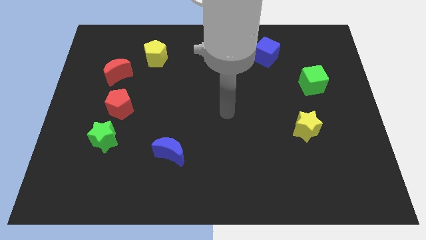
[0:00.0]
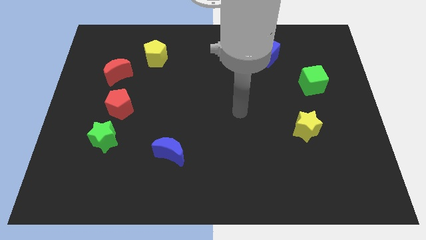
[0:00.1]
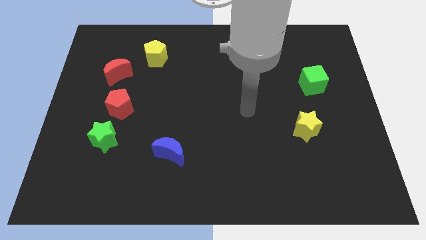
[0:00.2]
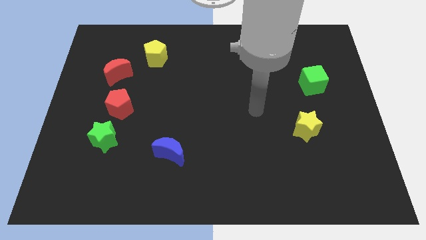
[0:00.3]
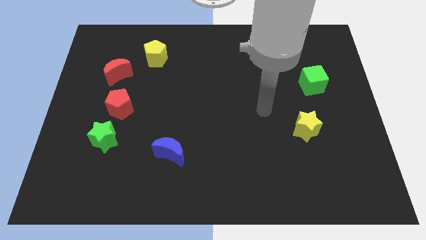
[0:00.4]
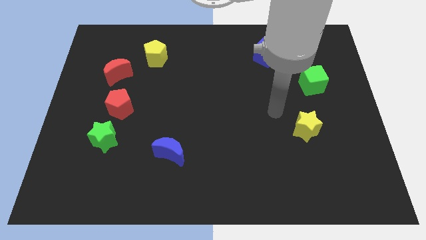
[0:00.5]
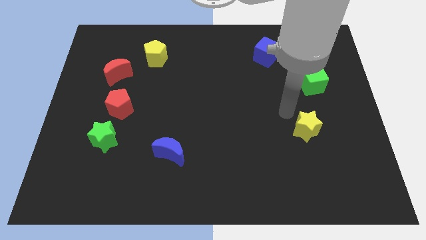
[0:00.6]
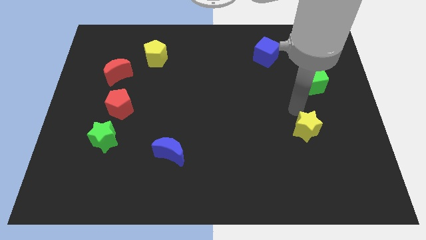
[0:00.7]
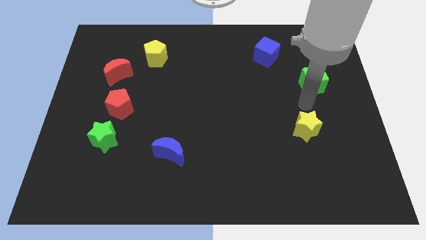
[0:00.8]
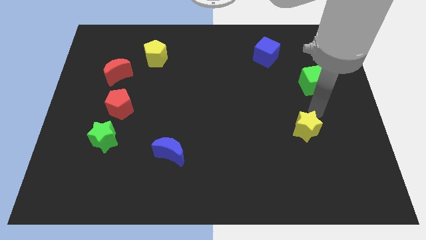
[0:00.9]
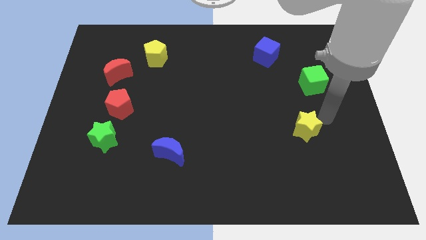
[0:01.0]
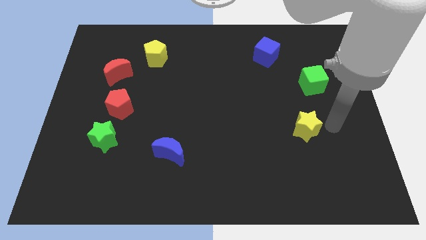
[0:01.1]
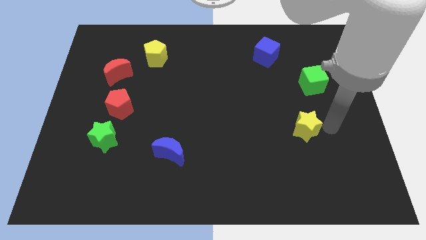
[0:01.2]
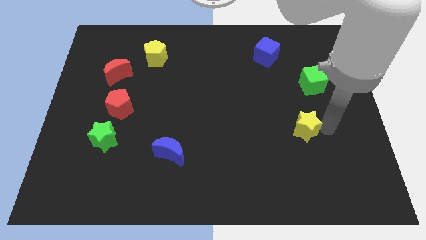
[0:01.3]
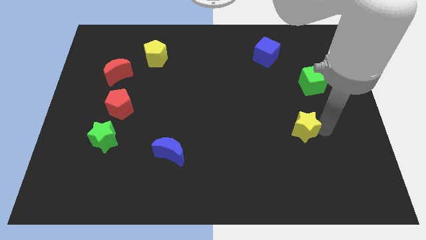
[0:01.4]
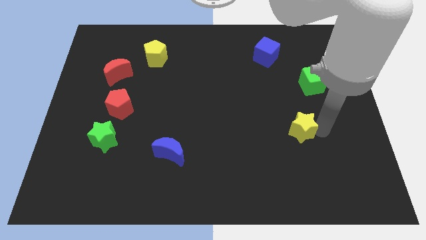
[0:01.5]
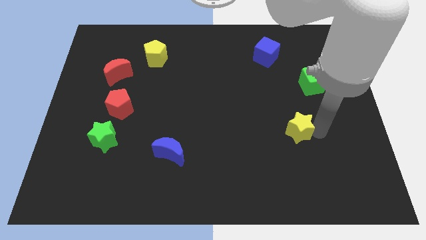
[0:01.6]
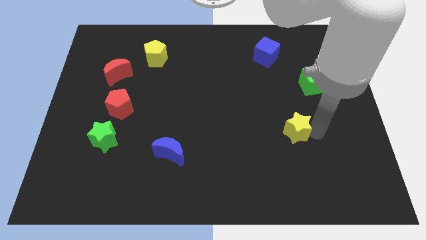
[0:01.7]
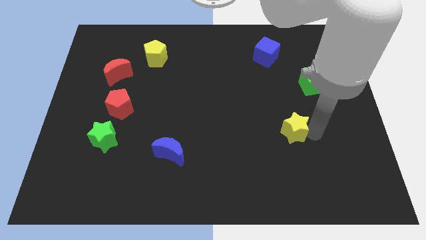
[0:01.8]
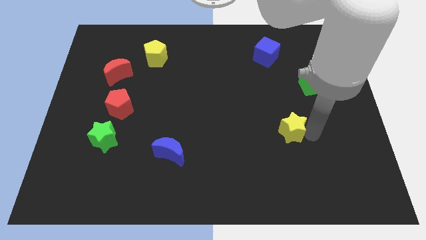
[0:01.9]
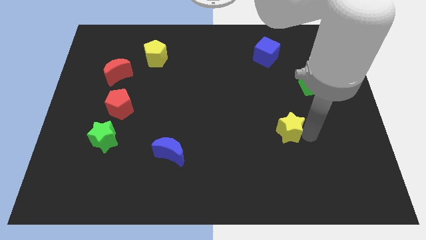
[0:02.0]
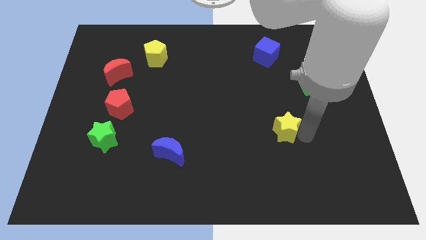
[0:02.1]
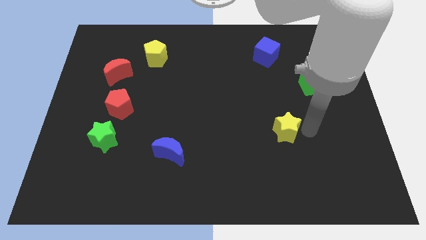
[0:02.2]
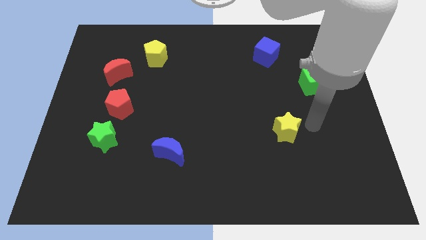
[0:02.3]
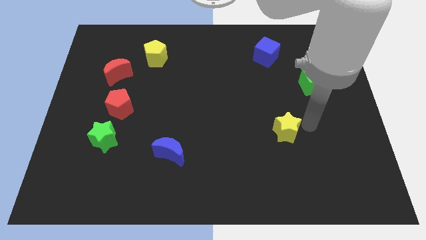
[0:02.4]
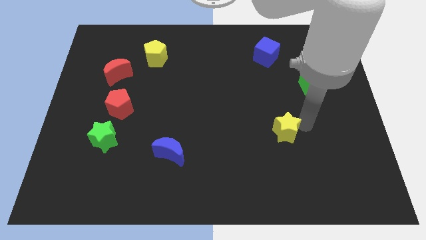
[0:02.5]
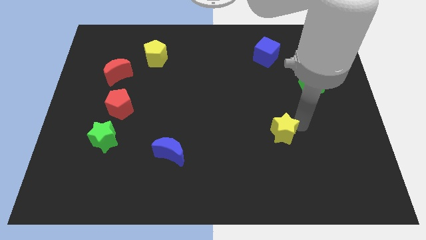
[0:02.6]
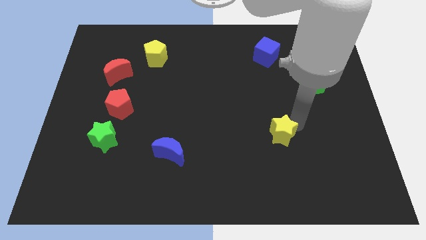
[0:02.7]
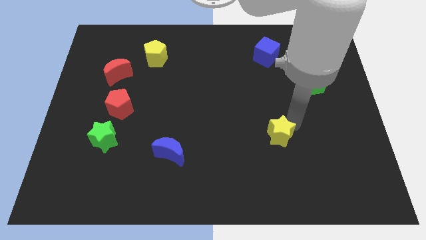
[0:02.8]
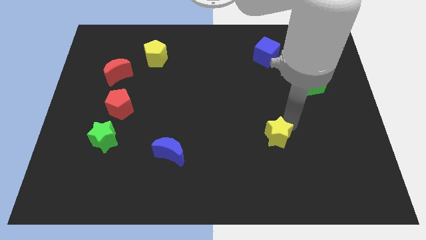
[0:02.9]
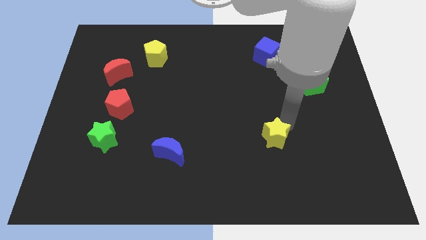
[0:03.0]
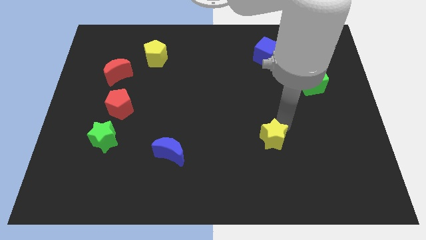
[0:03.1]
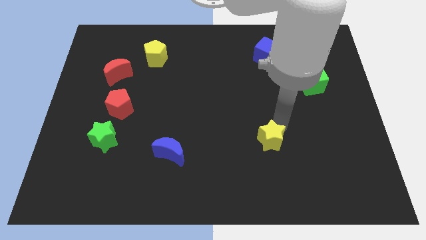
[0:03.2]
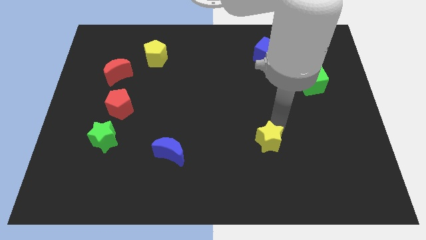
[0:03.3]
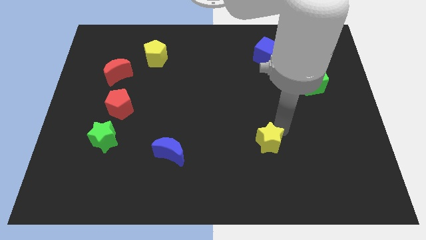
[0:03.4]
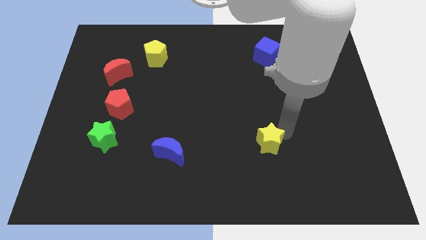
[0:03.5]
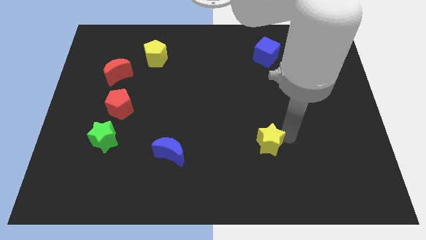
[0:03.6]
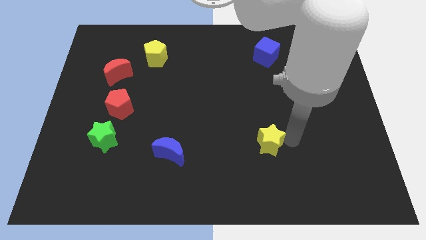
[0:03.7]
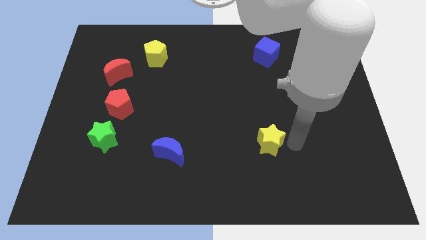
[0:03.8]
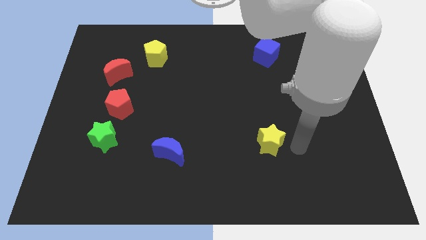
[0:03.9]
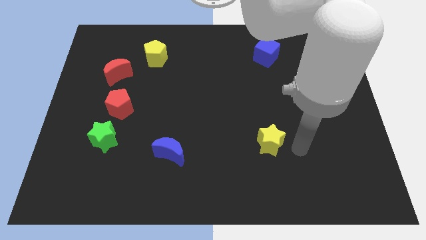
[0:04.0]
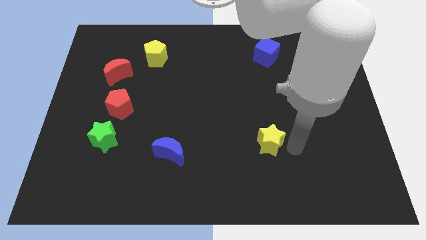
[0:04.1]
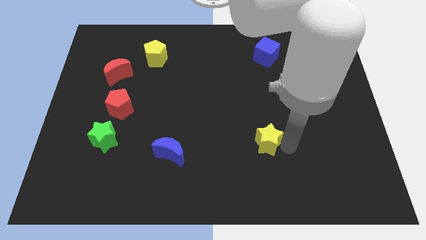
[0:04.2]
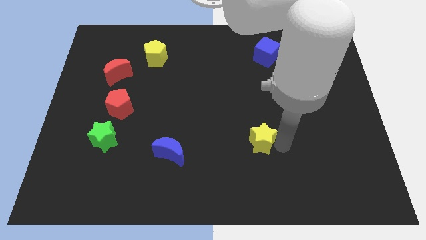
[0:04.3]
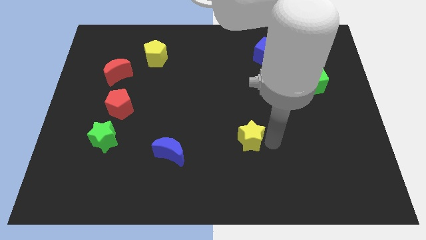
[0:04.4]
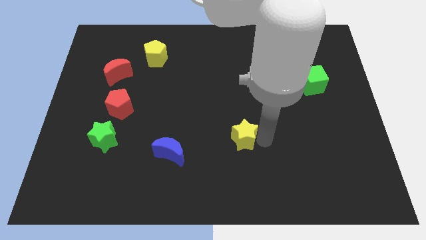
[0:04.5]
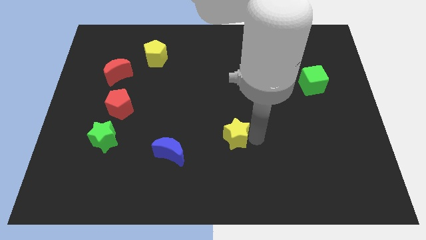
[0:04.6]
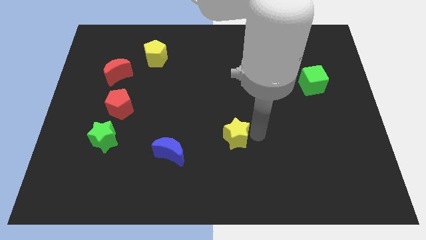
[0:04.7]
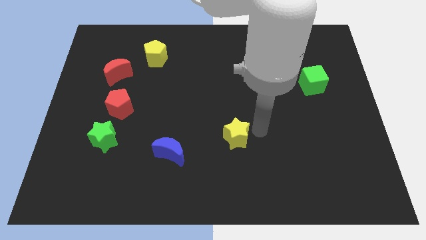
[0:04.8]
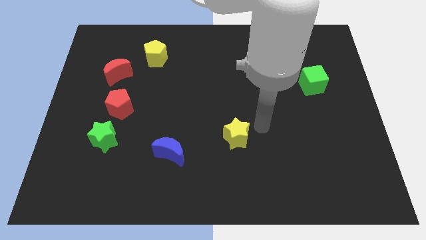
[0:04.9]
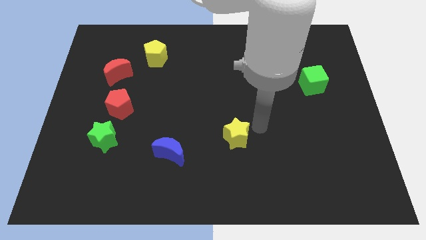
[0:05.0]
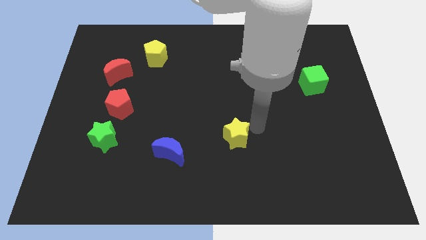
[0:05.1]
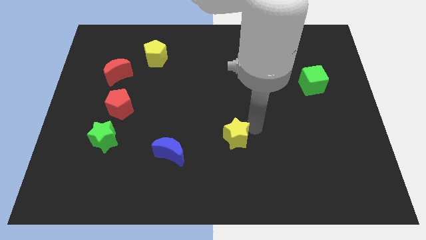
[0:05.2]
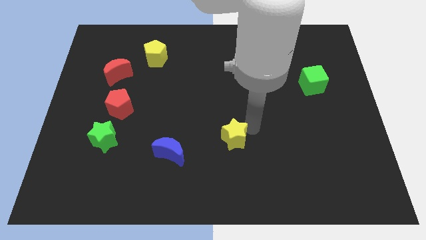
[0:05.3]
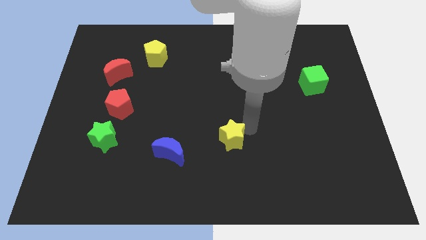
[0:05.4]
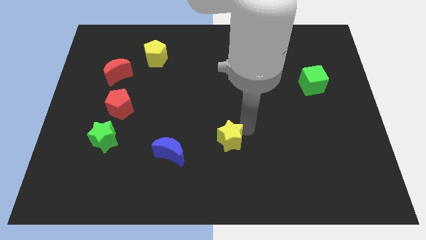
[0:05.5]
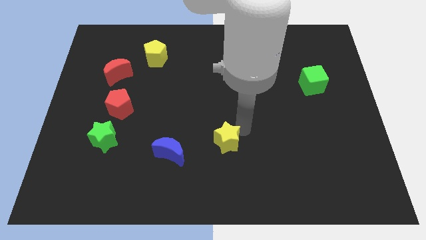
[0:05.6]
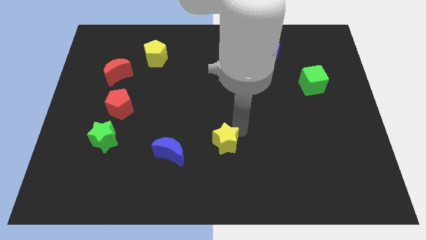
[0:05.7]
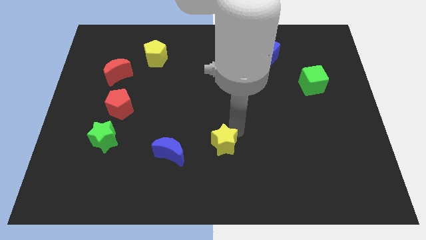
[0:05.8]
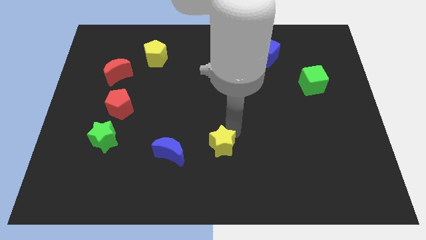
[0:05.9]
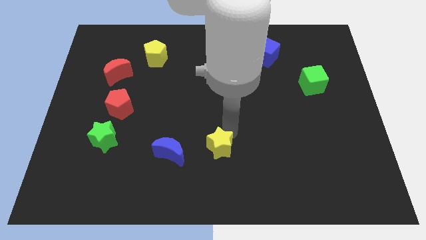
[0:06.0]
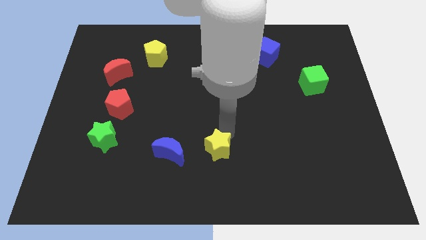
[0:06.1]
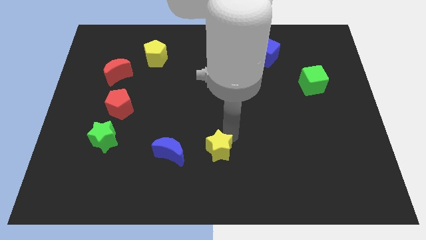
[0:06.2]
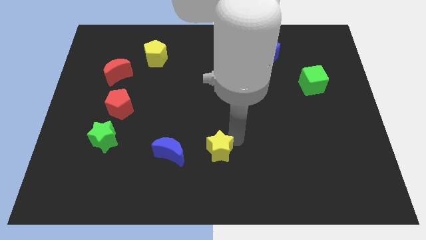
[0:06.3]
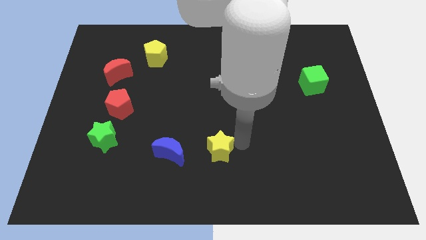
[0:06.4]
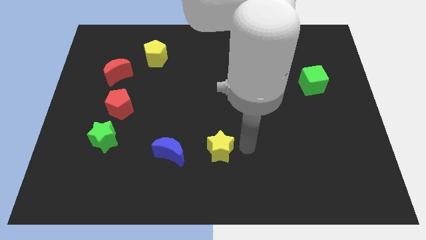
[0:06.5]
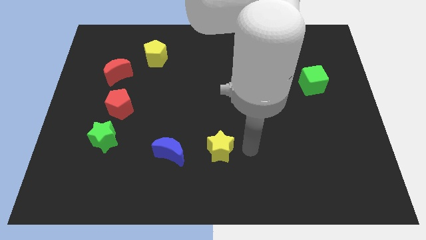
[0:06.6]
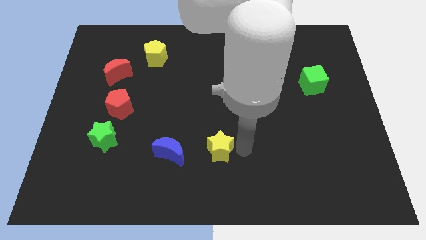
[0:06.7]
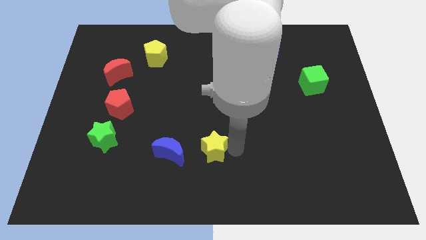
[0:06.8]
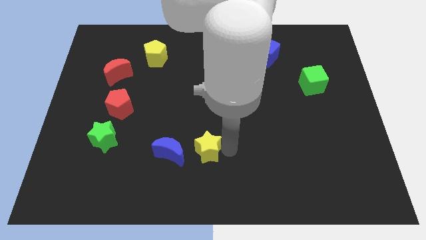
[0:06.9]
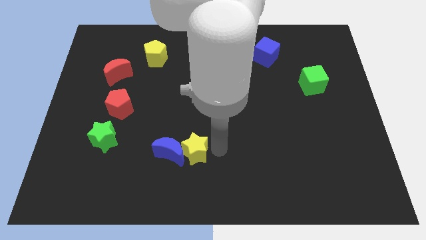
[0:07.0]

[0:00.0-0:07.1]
slide the yellow star close to the blue moon
